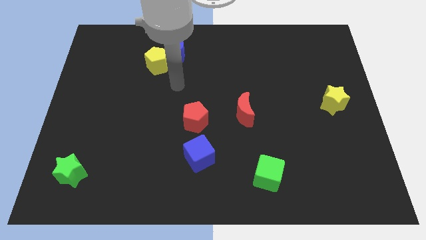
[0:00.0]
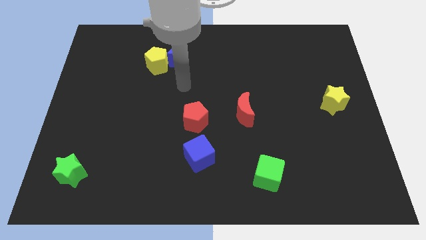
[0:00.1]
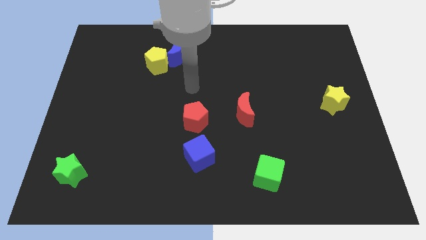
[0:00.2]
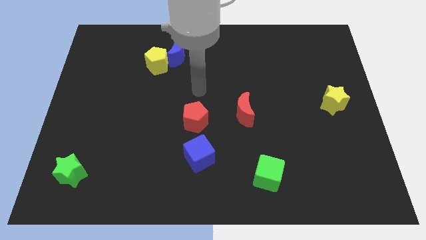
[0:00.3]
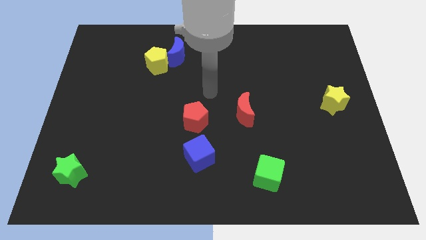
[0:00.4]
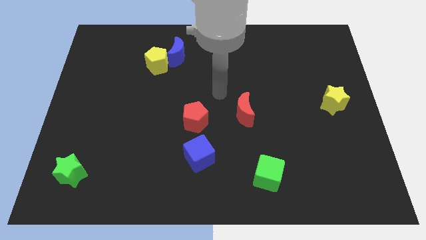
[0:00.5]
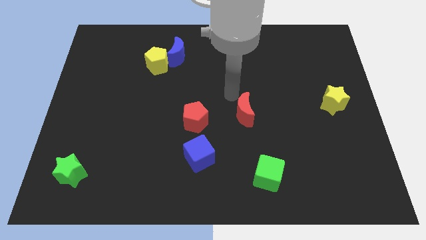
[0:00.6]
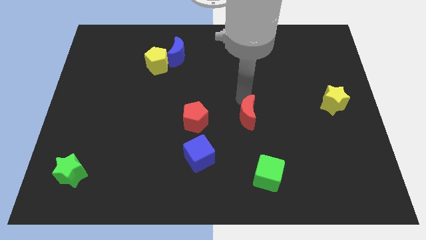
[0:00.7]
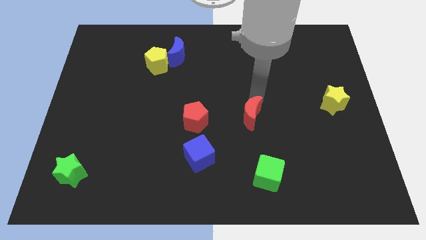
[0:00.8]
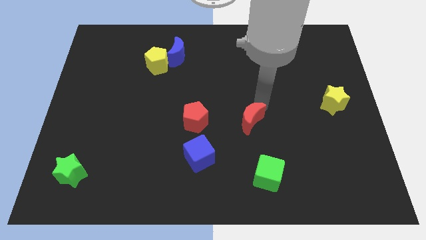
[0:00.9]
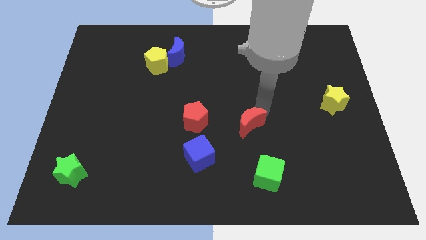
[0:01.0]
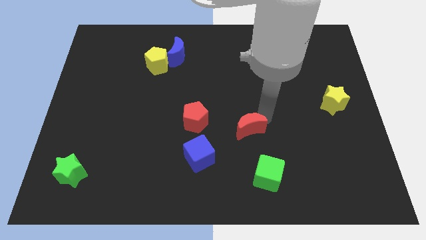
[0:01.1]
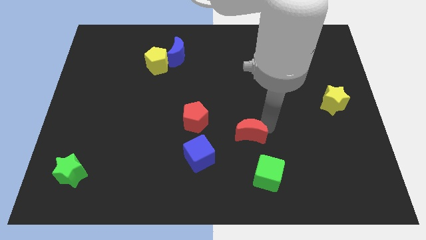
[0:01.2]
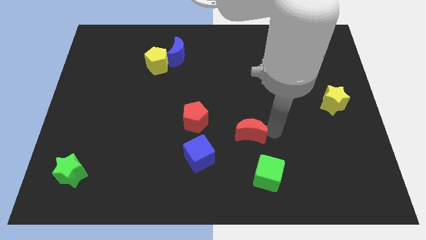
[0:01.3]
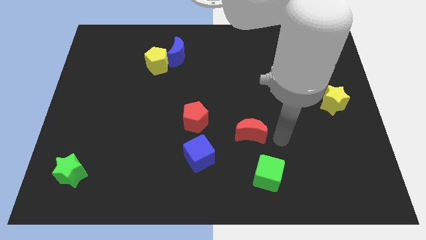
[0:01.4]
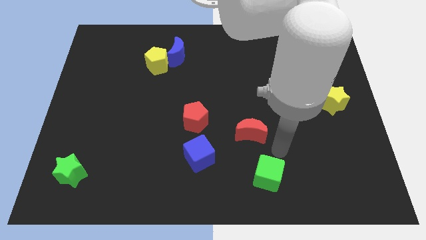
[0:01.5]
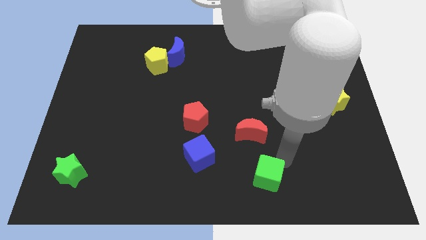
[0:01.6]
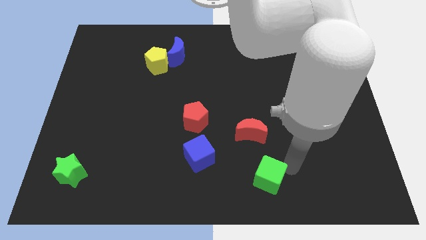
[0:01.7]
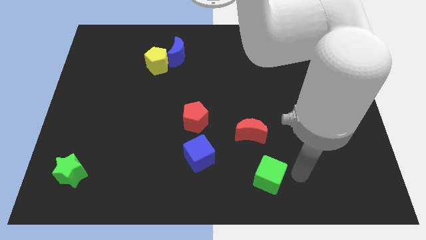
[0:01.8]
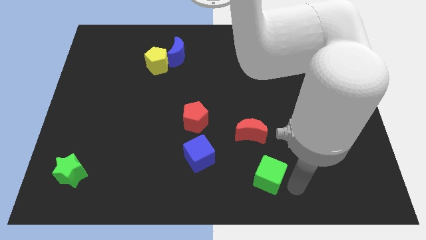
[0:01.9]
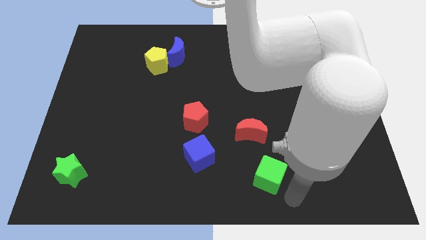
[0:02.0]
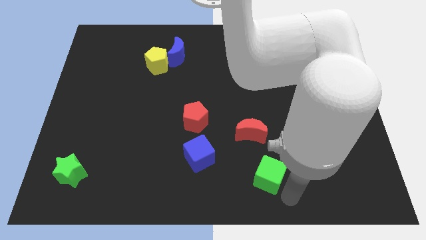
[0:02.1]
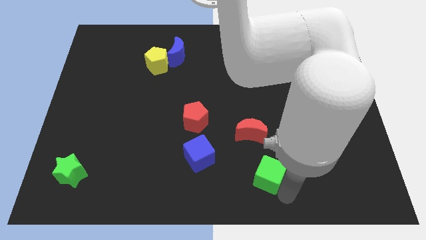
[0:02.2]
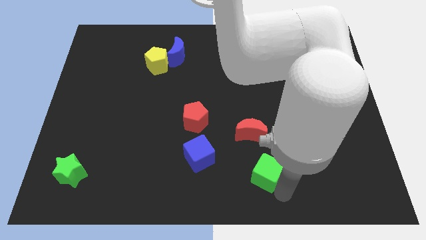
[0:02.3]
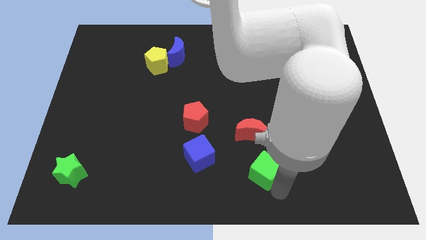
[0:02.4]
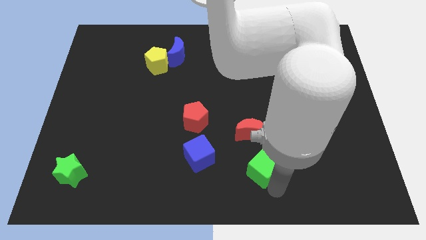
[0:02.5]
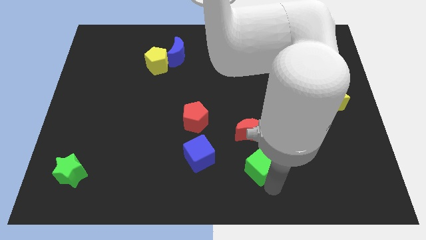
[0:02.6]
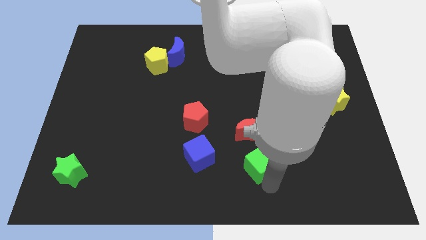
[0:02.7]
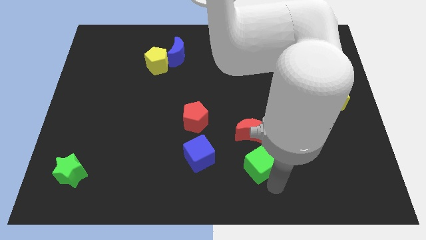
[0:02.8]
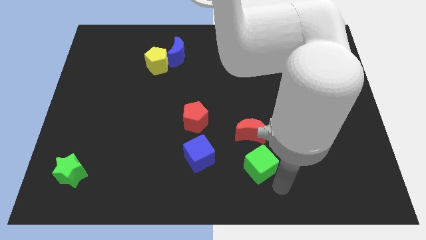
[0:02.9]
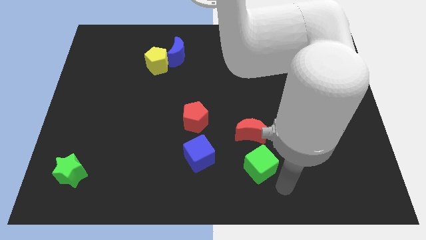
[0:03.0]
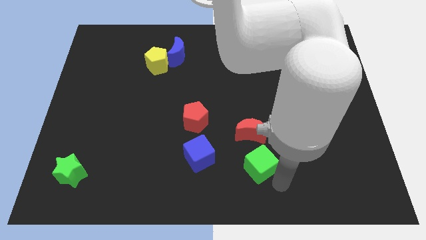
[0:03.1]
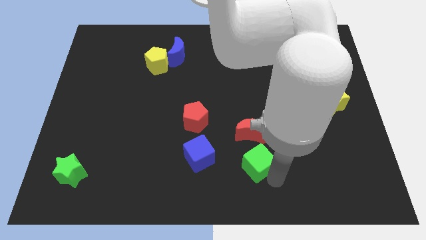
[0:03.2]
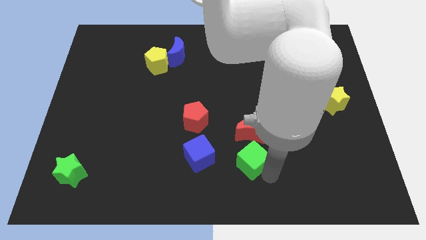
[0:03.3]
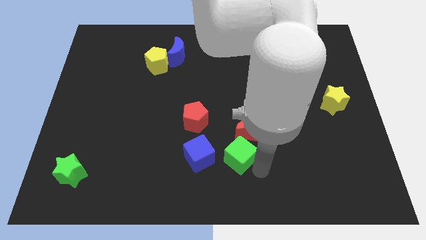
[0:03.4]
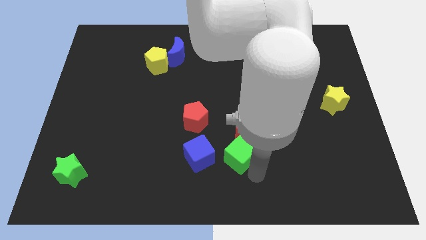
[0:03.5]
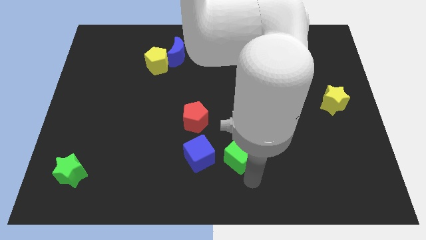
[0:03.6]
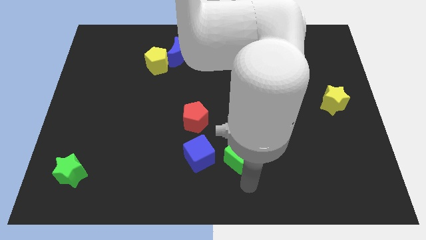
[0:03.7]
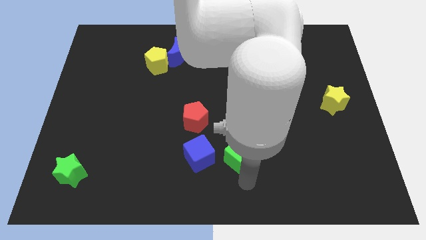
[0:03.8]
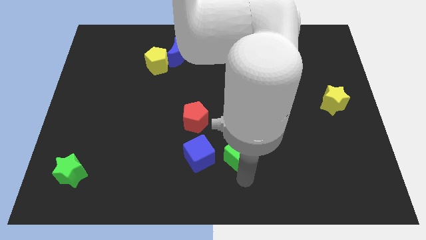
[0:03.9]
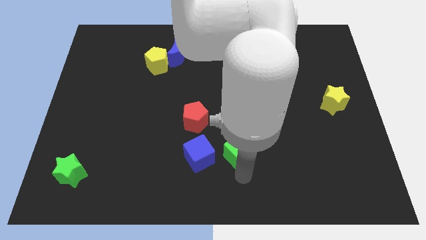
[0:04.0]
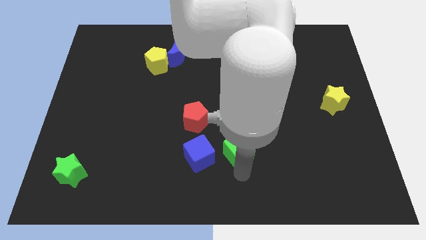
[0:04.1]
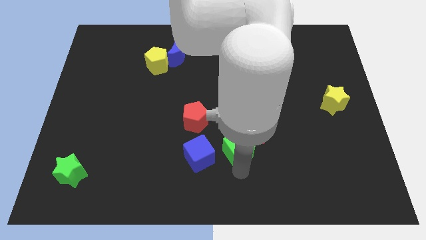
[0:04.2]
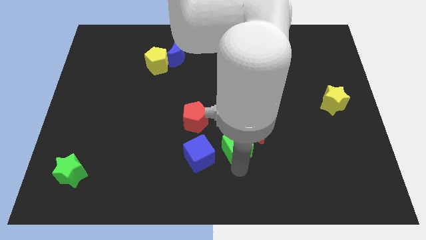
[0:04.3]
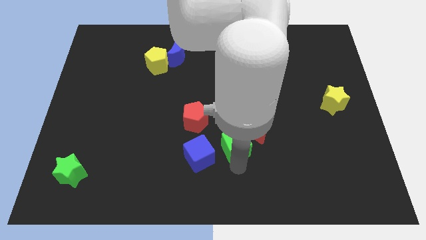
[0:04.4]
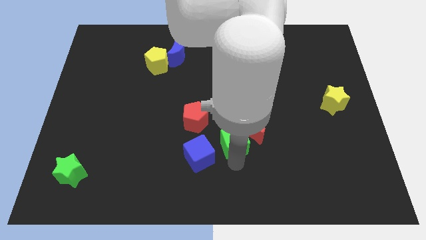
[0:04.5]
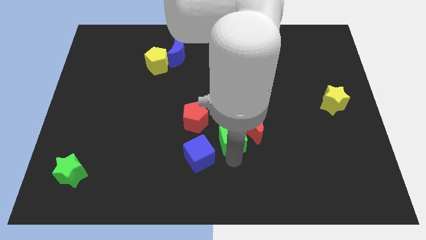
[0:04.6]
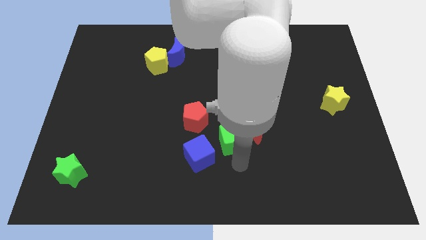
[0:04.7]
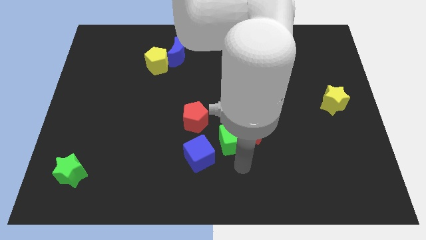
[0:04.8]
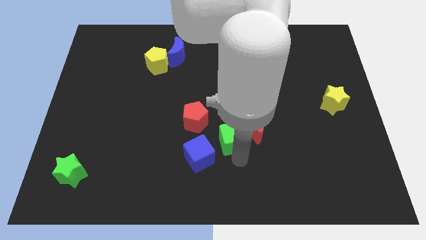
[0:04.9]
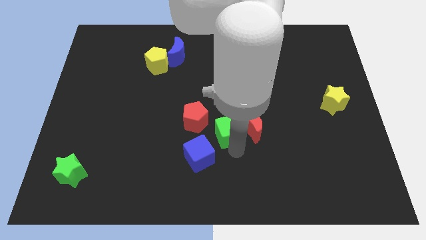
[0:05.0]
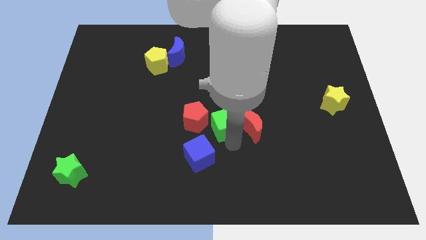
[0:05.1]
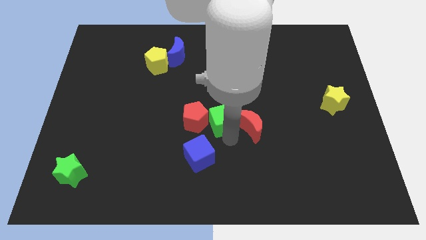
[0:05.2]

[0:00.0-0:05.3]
push the green cube above the blue cube

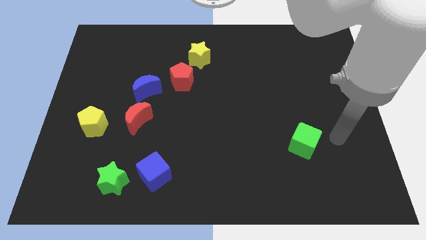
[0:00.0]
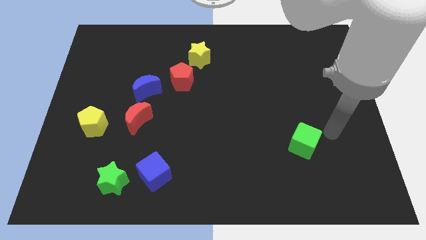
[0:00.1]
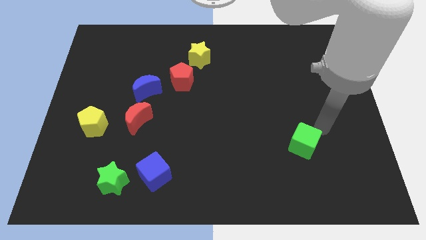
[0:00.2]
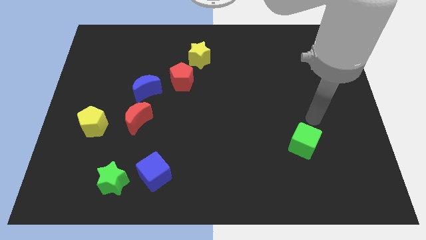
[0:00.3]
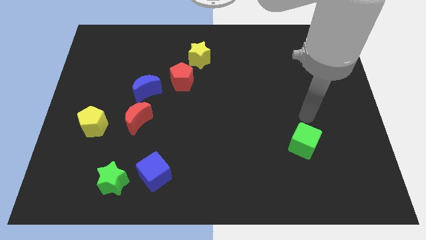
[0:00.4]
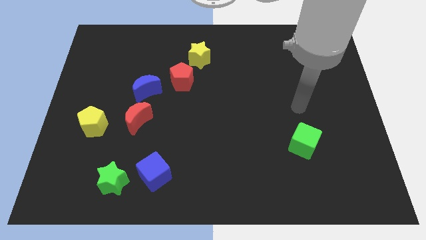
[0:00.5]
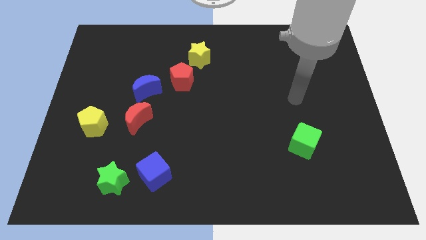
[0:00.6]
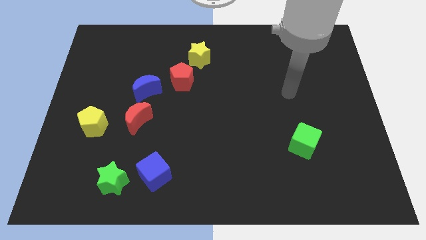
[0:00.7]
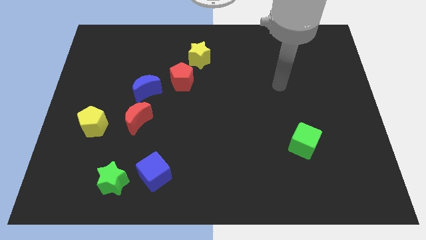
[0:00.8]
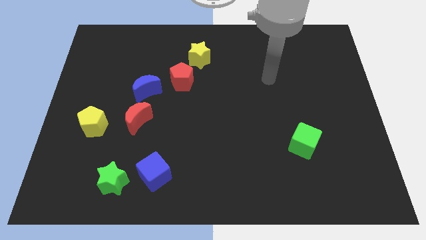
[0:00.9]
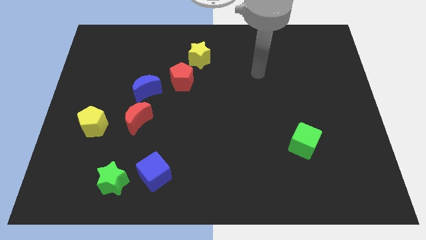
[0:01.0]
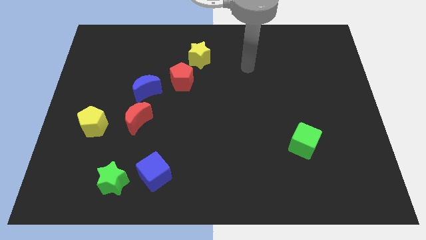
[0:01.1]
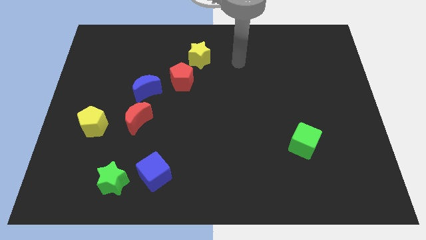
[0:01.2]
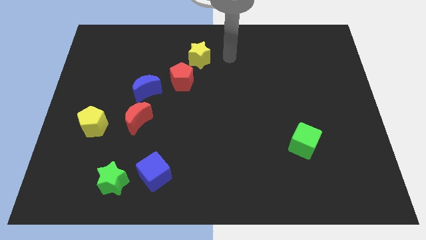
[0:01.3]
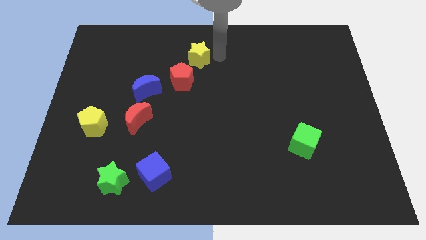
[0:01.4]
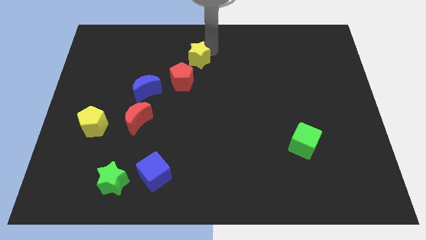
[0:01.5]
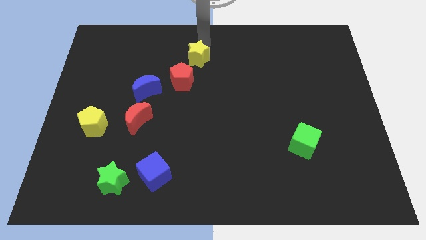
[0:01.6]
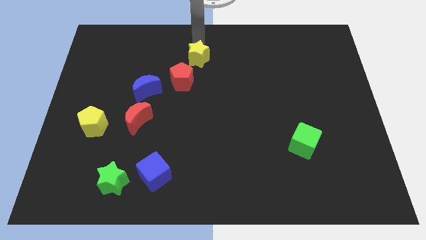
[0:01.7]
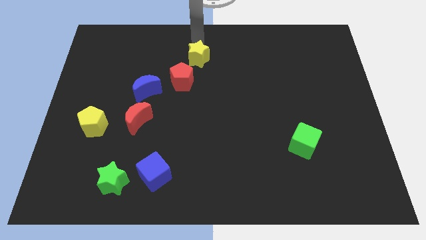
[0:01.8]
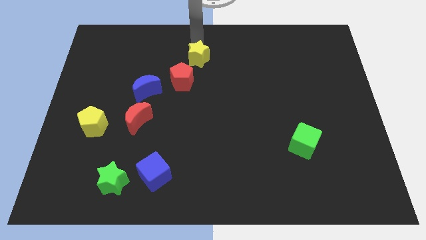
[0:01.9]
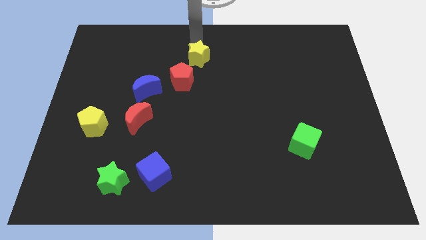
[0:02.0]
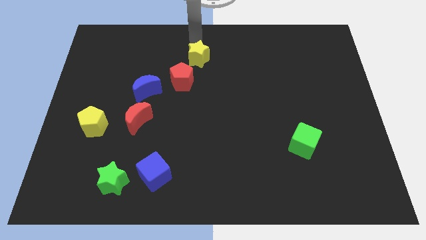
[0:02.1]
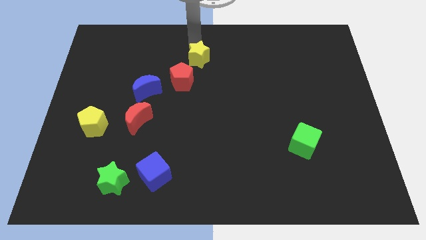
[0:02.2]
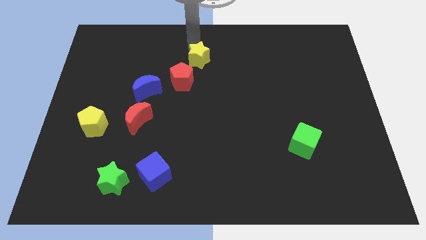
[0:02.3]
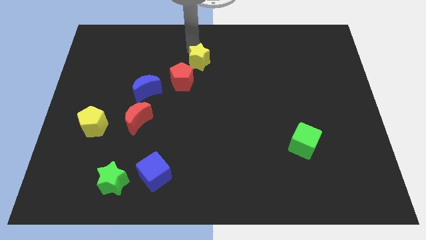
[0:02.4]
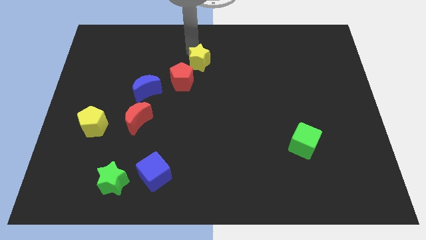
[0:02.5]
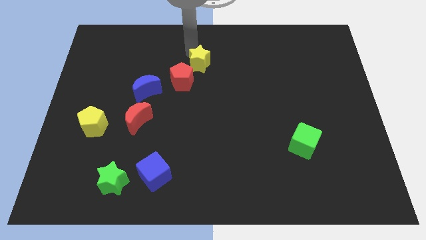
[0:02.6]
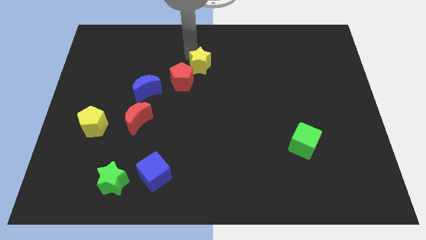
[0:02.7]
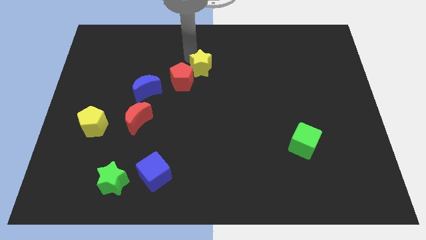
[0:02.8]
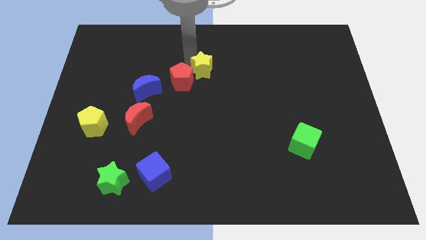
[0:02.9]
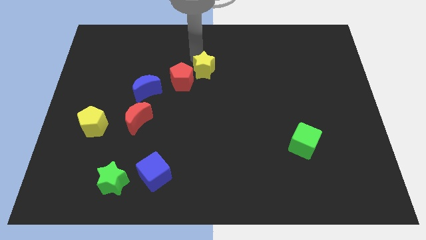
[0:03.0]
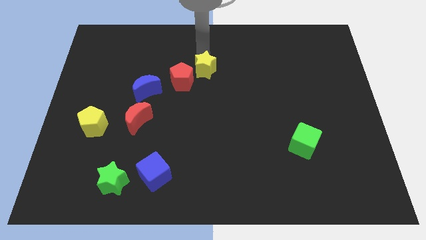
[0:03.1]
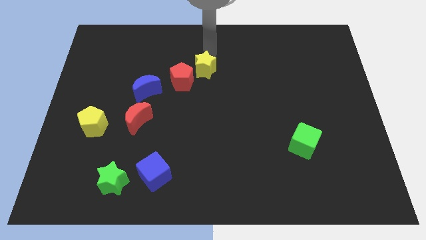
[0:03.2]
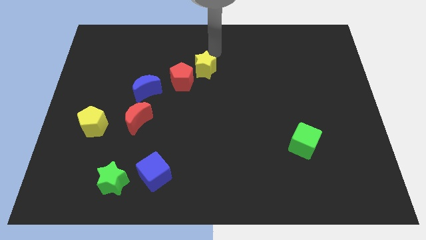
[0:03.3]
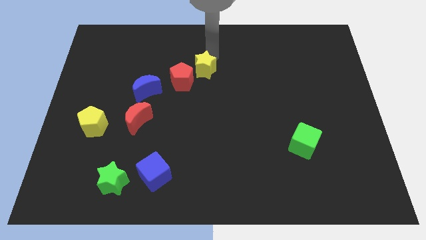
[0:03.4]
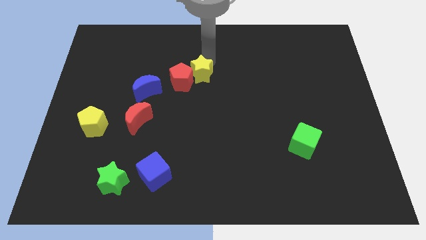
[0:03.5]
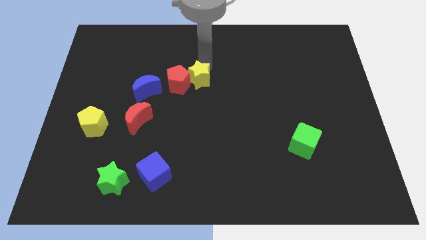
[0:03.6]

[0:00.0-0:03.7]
put the yellow star to the right side of the blue moon
